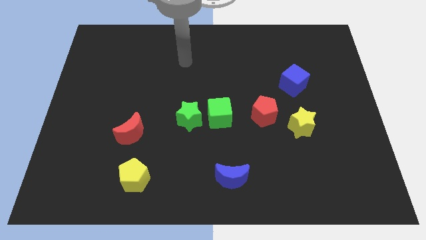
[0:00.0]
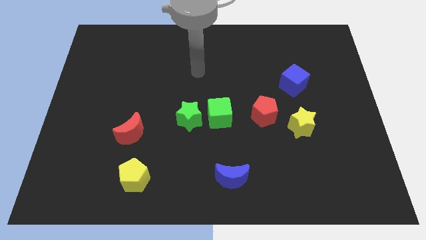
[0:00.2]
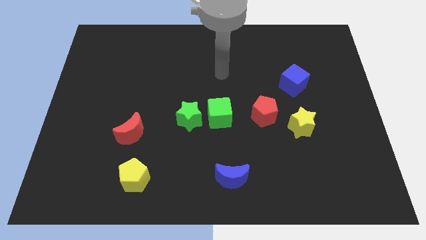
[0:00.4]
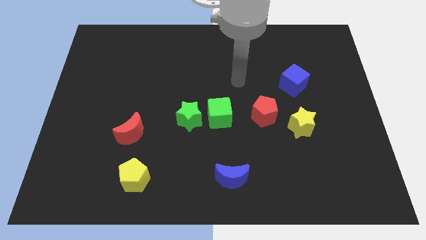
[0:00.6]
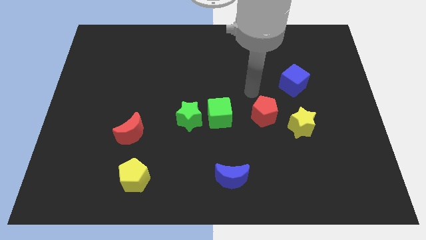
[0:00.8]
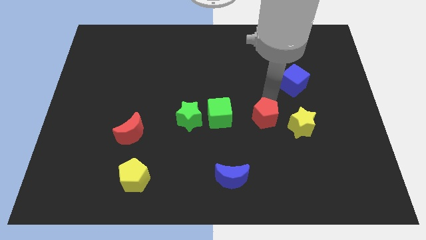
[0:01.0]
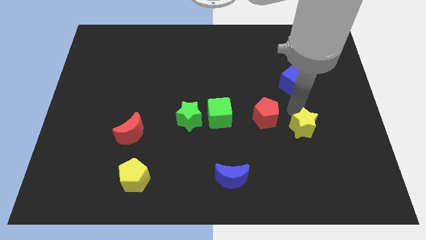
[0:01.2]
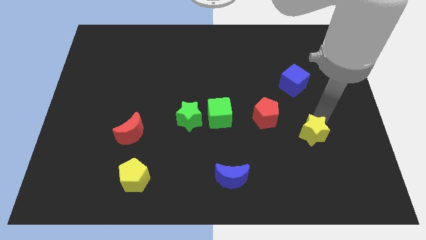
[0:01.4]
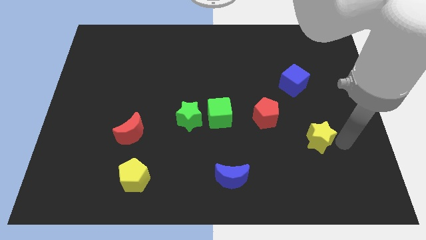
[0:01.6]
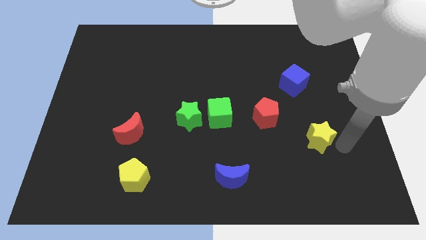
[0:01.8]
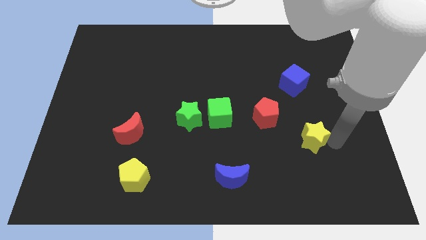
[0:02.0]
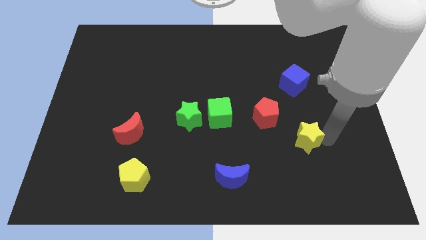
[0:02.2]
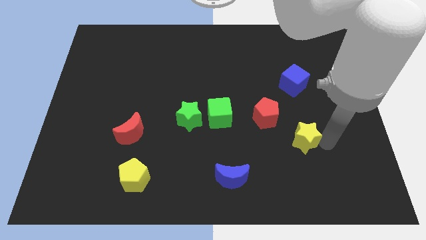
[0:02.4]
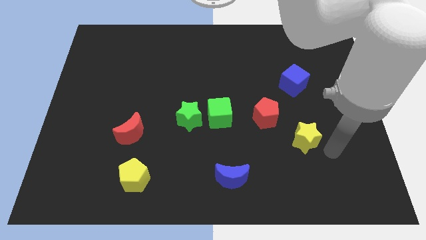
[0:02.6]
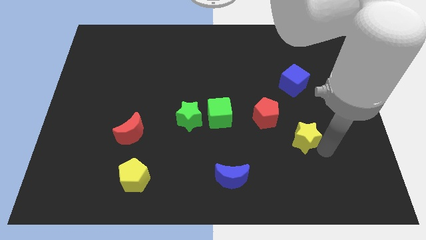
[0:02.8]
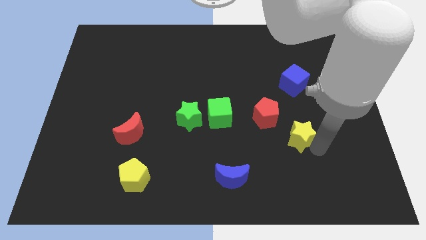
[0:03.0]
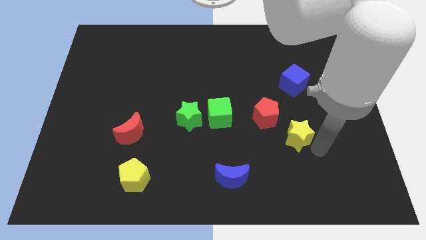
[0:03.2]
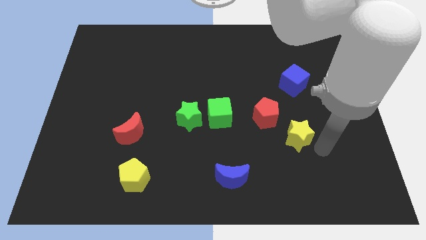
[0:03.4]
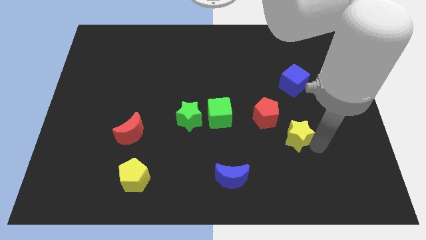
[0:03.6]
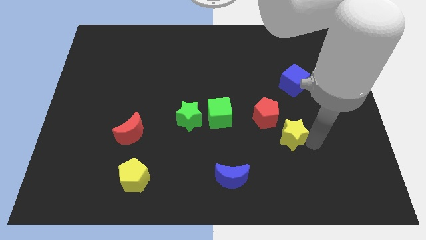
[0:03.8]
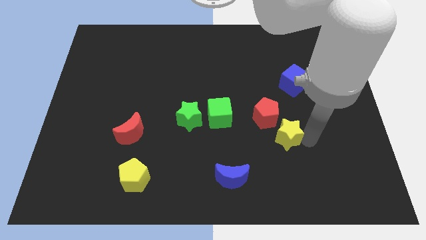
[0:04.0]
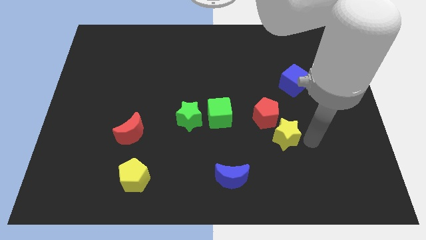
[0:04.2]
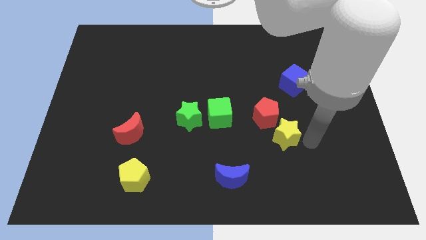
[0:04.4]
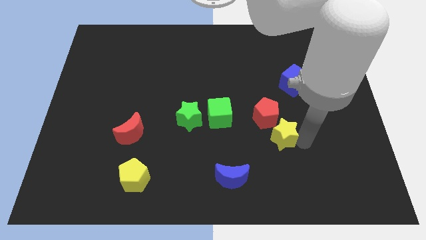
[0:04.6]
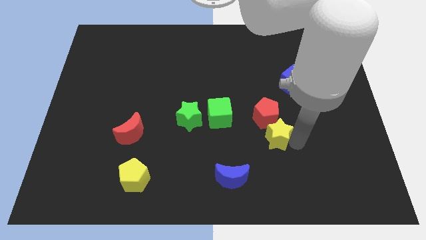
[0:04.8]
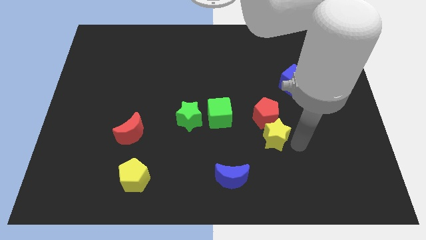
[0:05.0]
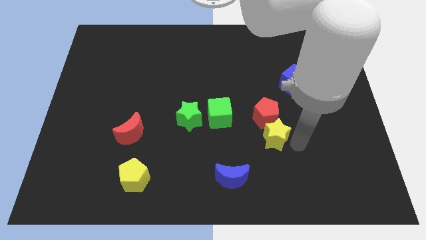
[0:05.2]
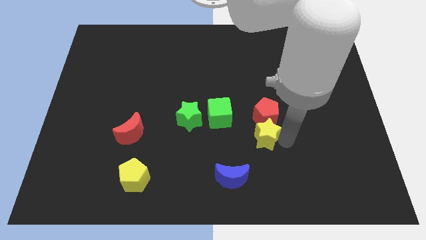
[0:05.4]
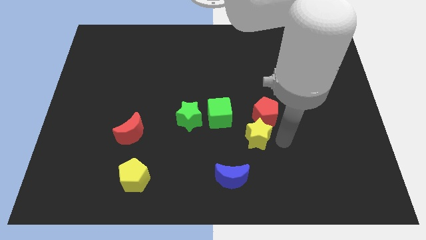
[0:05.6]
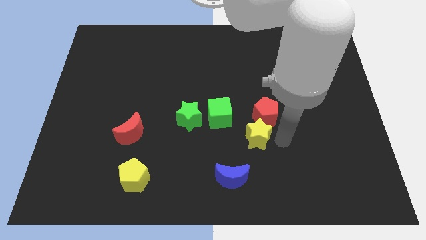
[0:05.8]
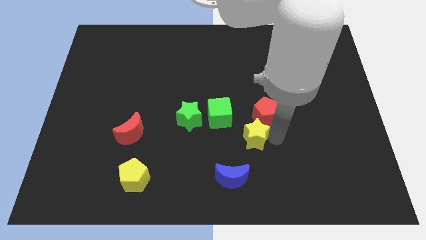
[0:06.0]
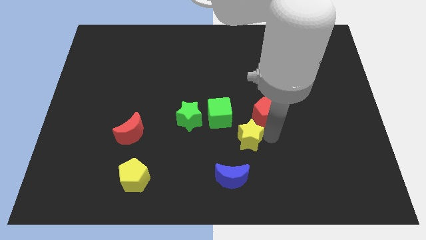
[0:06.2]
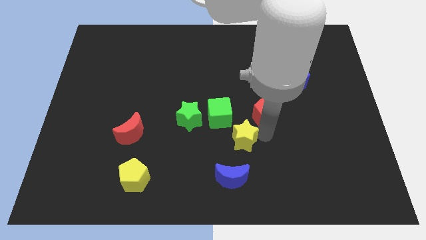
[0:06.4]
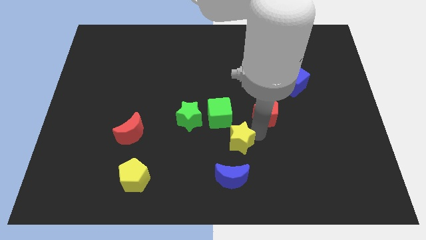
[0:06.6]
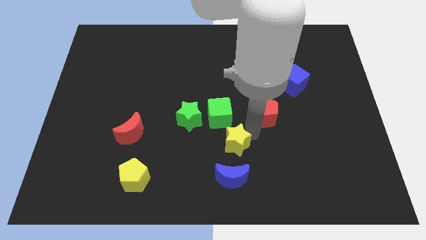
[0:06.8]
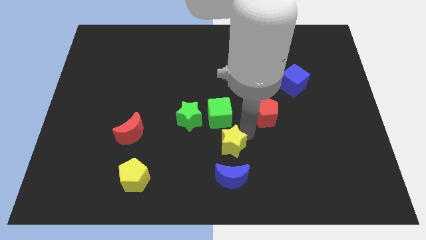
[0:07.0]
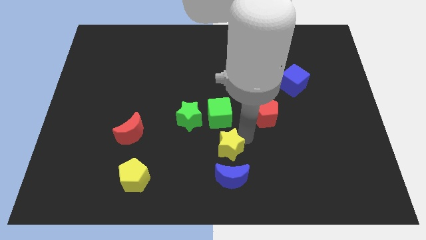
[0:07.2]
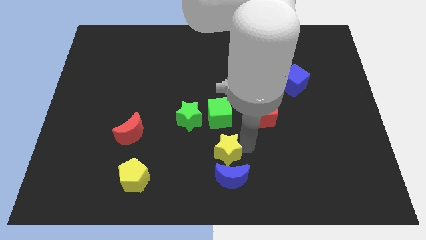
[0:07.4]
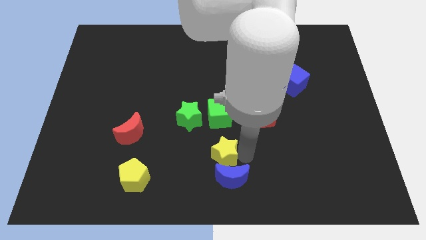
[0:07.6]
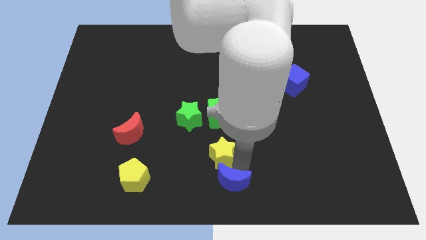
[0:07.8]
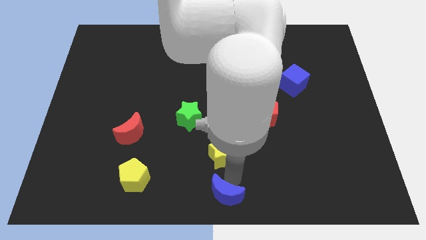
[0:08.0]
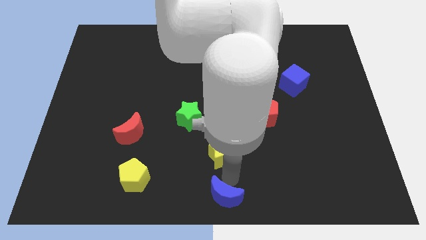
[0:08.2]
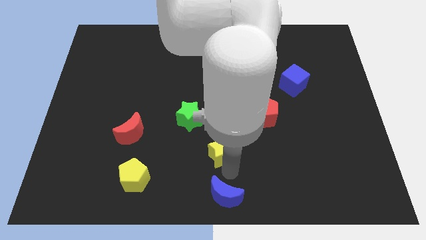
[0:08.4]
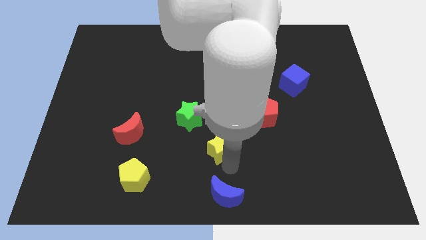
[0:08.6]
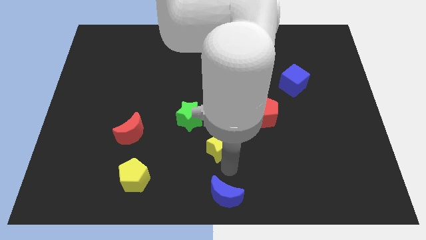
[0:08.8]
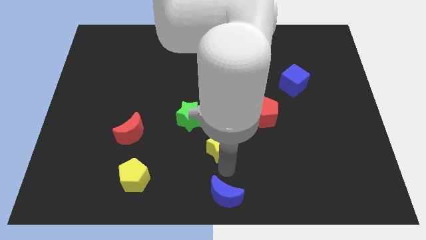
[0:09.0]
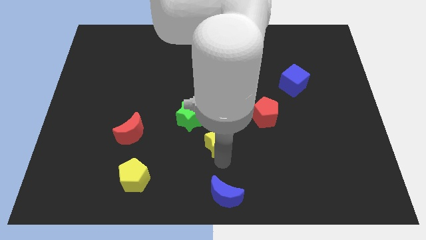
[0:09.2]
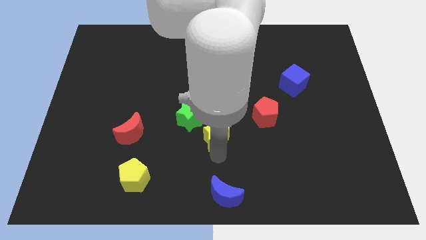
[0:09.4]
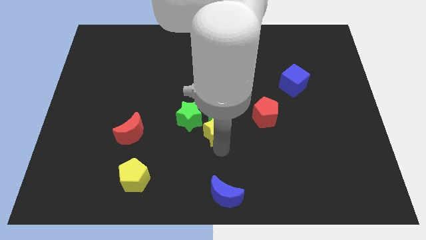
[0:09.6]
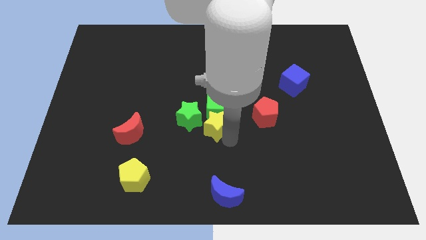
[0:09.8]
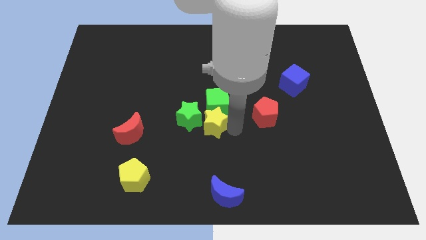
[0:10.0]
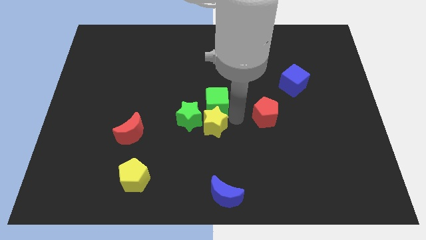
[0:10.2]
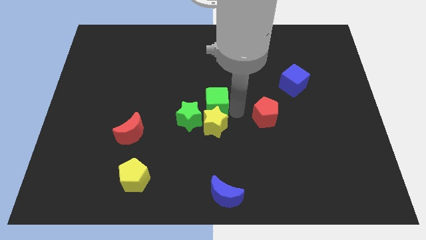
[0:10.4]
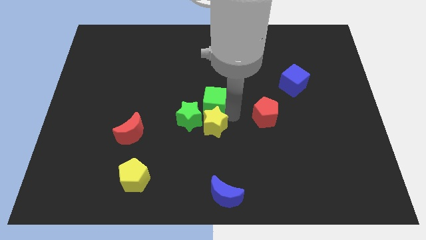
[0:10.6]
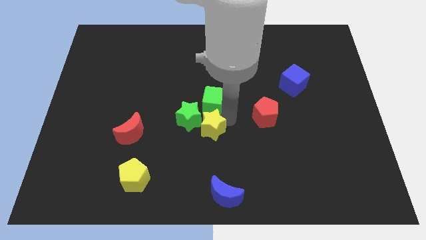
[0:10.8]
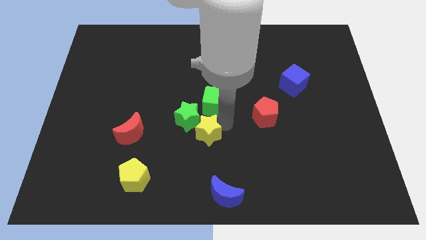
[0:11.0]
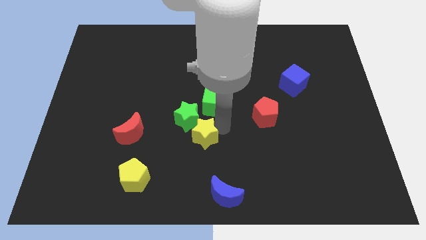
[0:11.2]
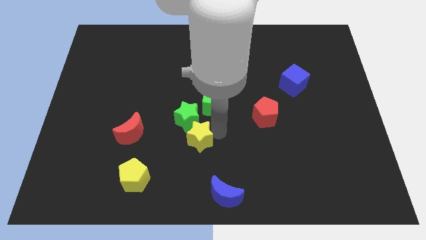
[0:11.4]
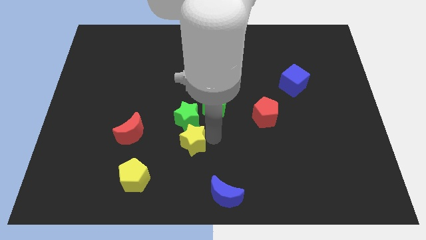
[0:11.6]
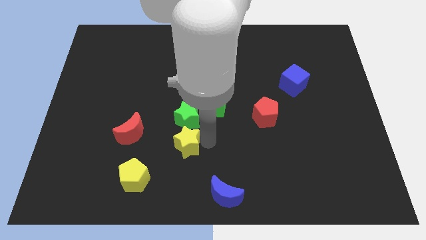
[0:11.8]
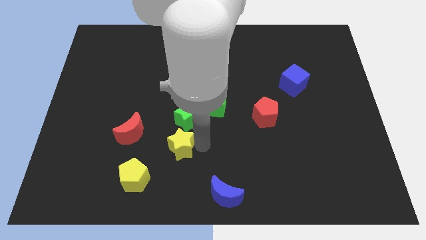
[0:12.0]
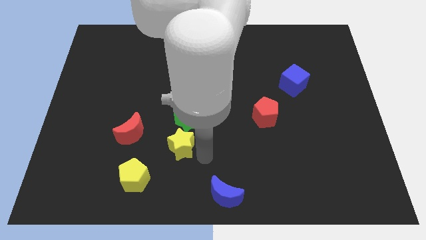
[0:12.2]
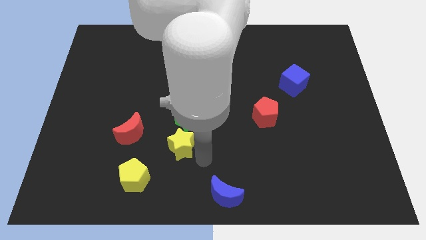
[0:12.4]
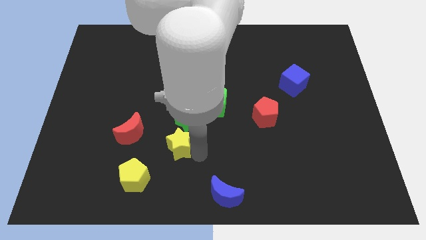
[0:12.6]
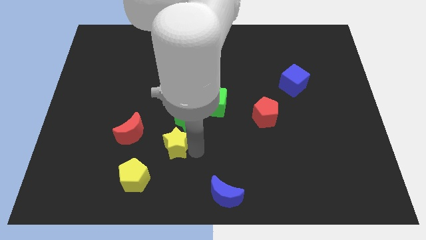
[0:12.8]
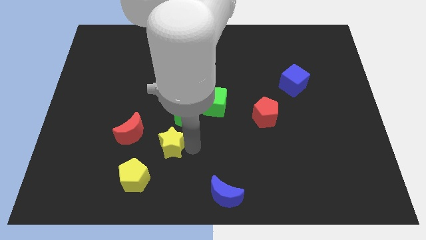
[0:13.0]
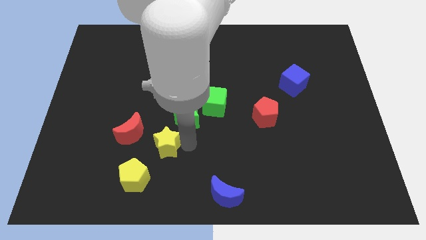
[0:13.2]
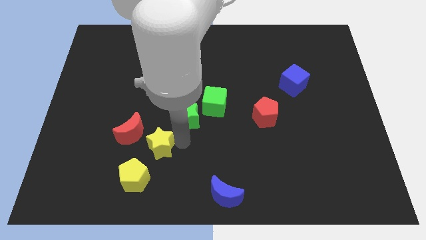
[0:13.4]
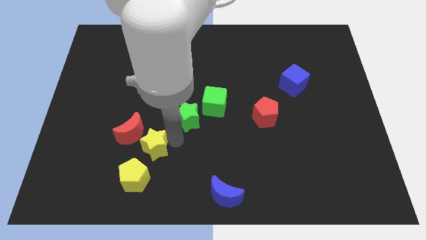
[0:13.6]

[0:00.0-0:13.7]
slide the yellow star to the red moon
